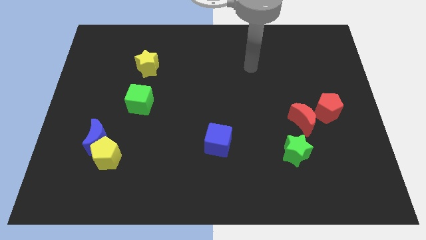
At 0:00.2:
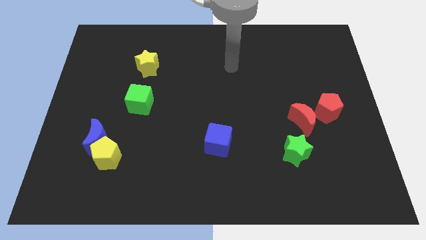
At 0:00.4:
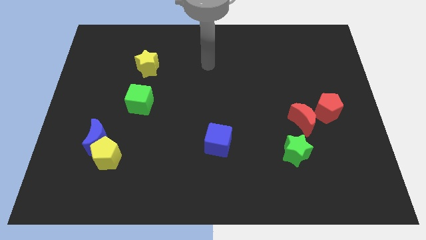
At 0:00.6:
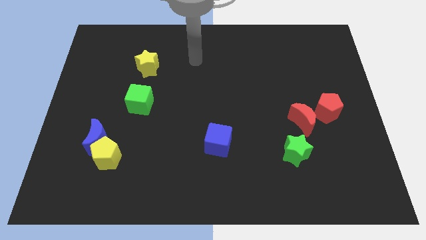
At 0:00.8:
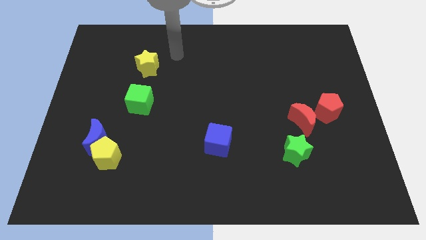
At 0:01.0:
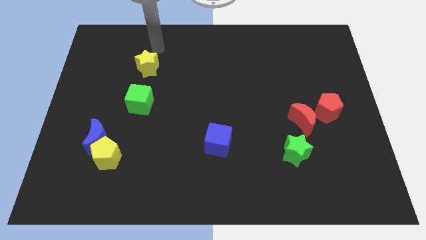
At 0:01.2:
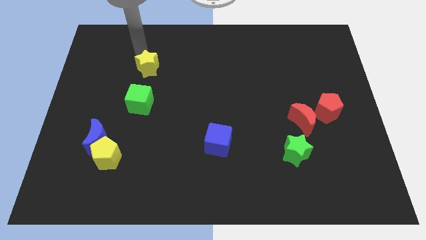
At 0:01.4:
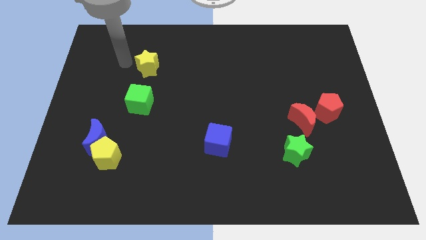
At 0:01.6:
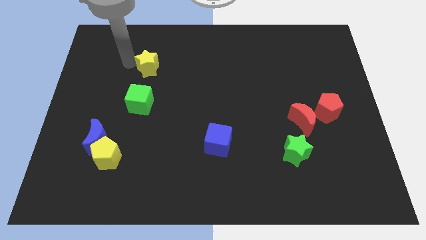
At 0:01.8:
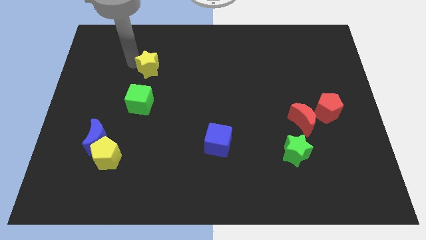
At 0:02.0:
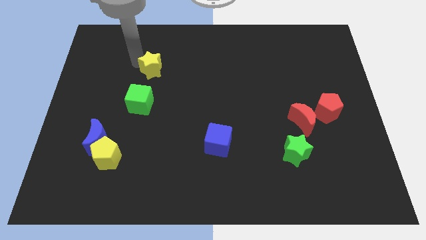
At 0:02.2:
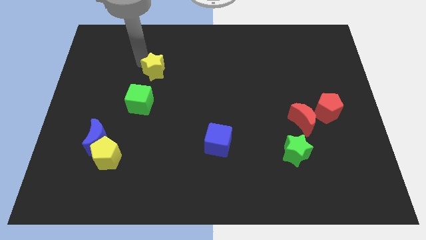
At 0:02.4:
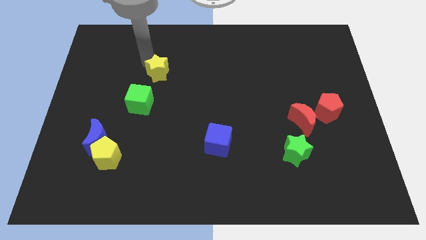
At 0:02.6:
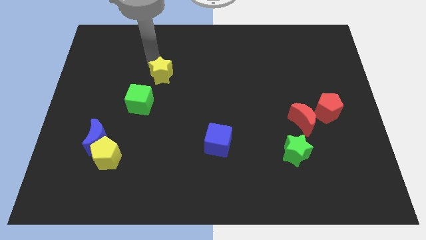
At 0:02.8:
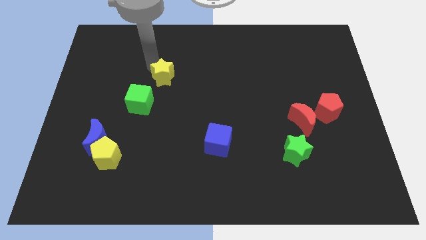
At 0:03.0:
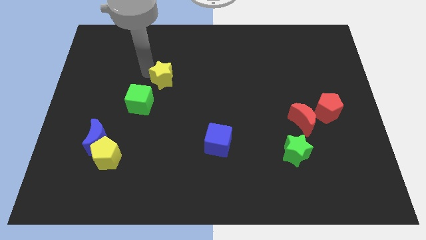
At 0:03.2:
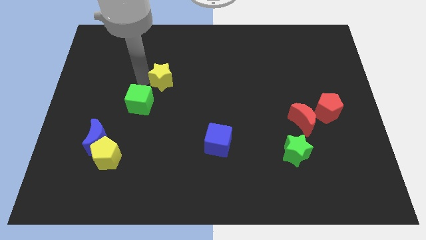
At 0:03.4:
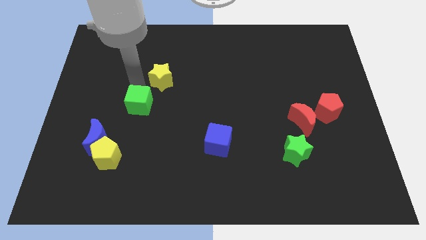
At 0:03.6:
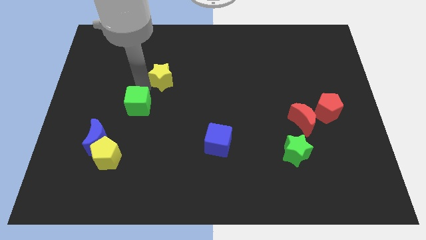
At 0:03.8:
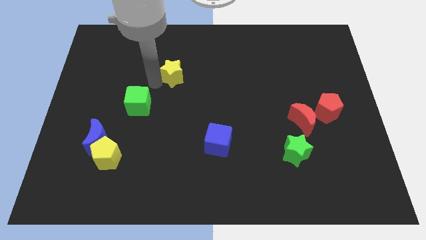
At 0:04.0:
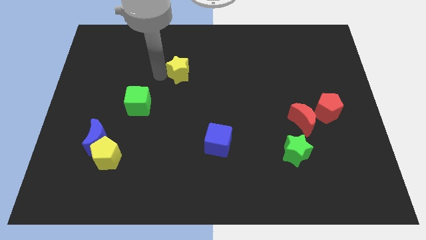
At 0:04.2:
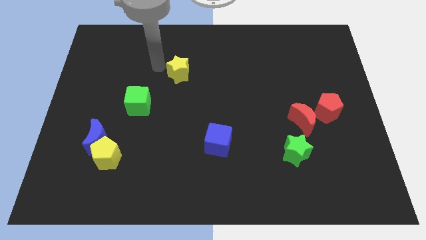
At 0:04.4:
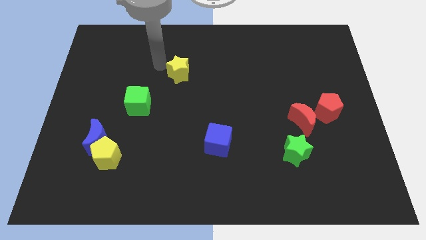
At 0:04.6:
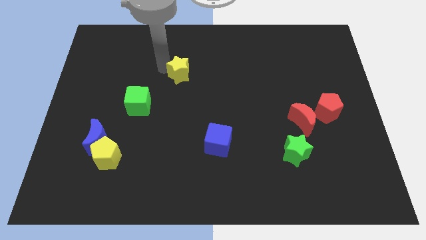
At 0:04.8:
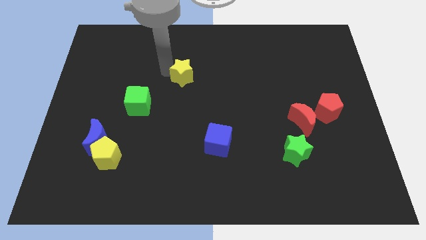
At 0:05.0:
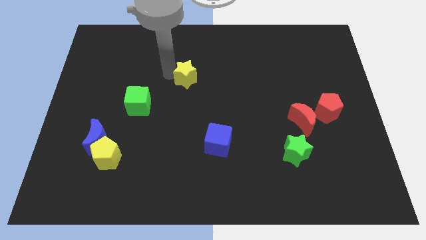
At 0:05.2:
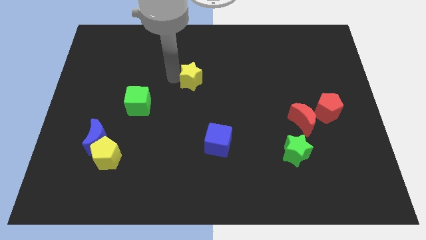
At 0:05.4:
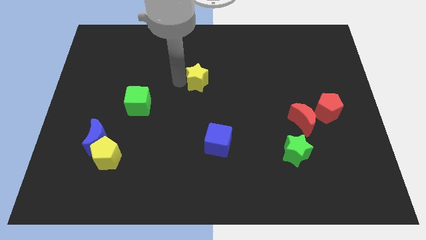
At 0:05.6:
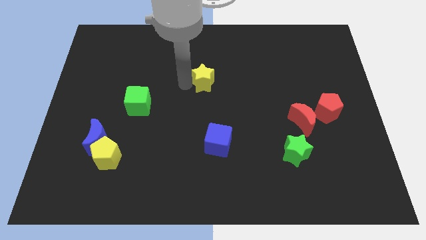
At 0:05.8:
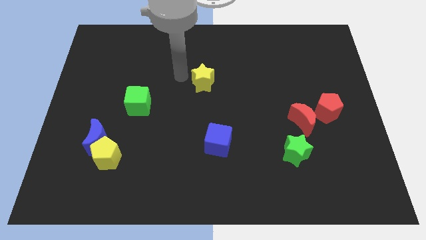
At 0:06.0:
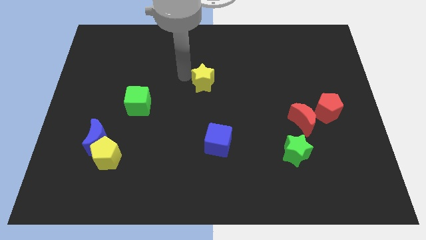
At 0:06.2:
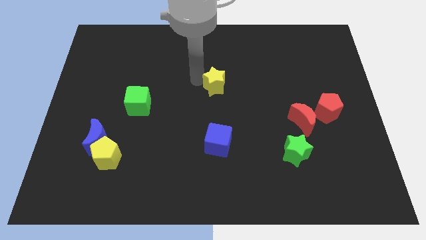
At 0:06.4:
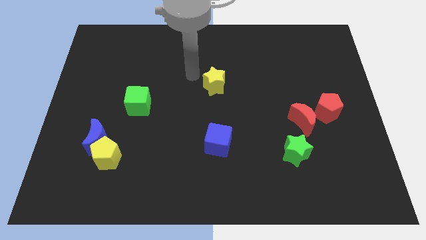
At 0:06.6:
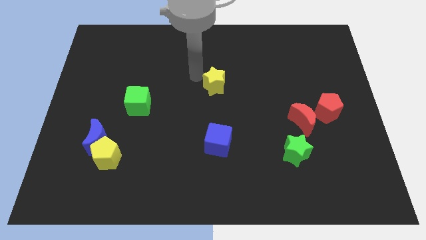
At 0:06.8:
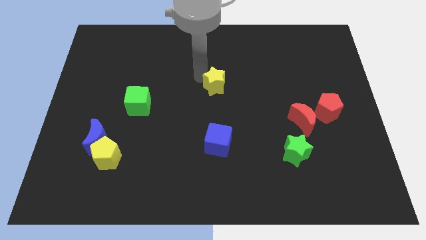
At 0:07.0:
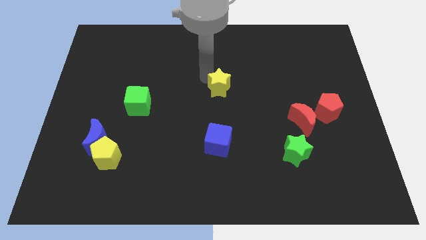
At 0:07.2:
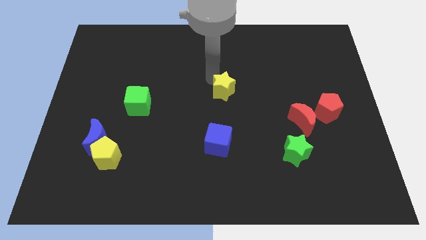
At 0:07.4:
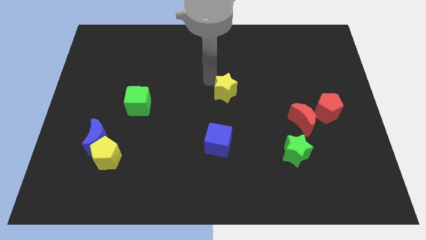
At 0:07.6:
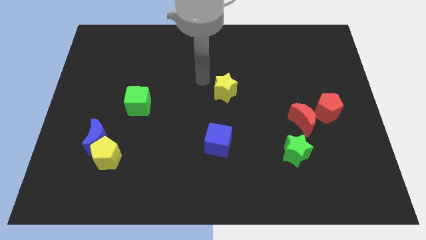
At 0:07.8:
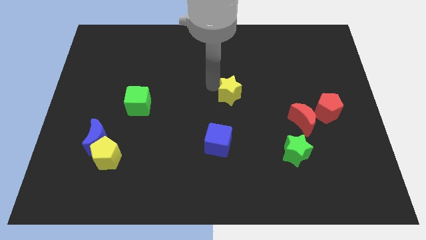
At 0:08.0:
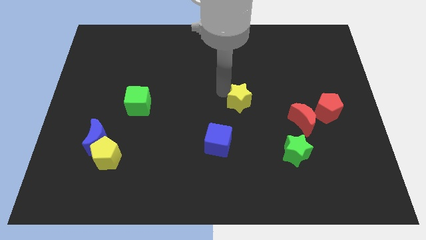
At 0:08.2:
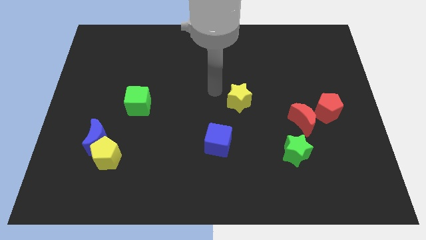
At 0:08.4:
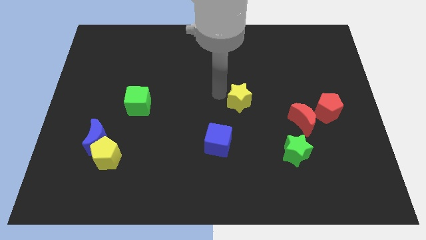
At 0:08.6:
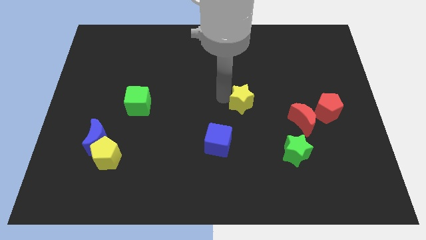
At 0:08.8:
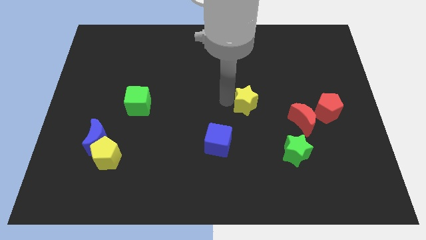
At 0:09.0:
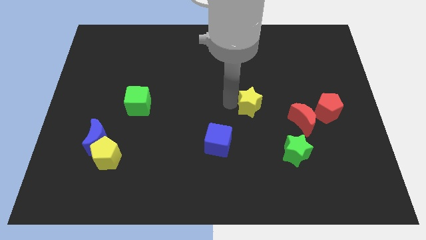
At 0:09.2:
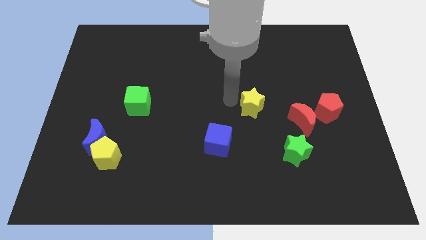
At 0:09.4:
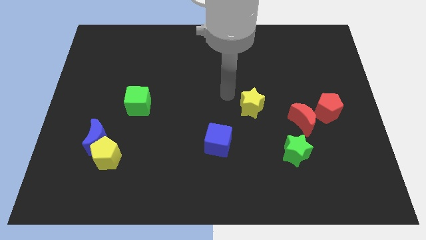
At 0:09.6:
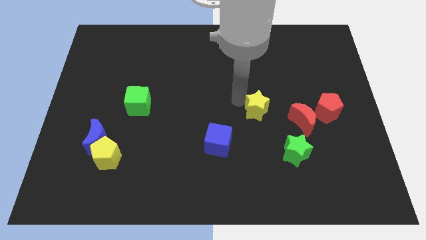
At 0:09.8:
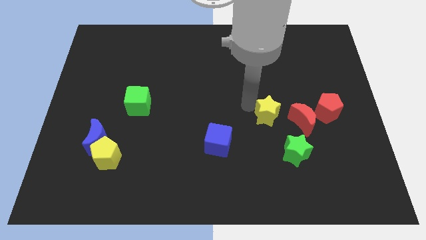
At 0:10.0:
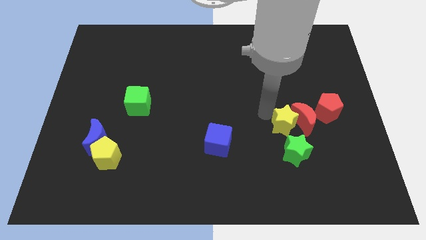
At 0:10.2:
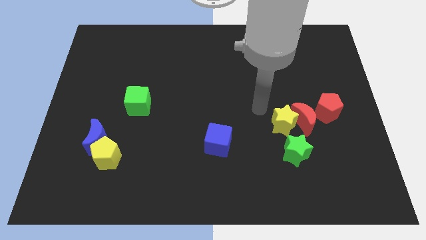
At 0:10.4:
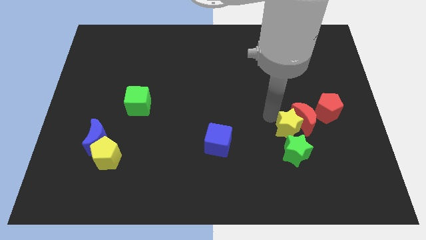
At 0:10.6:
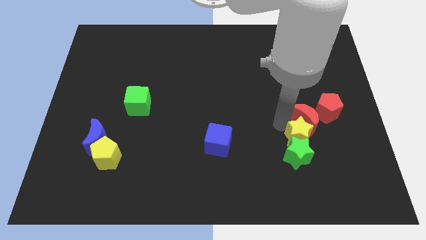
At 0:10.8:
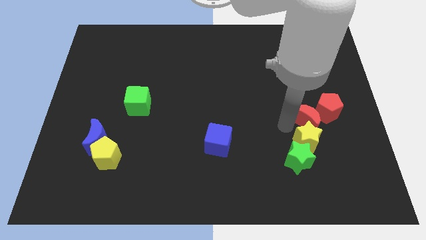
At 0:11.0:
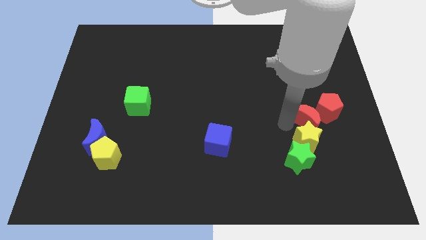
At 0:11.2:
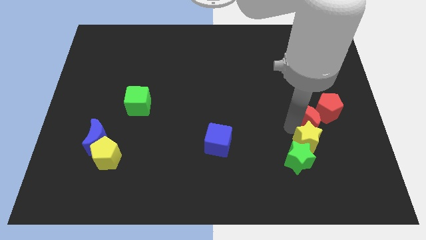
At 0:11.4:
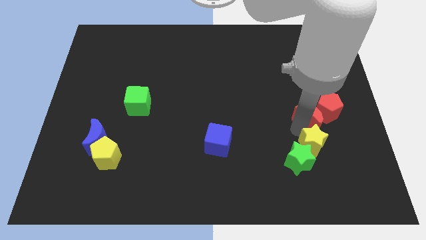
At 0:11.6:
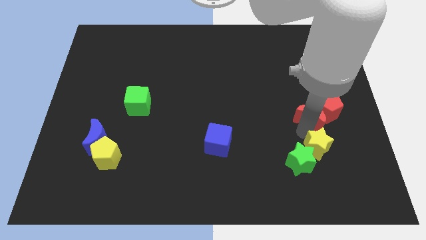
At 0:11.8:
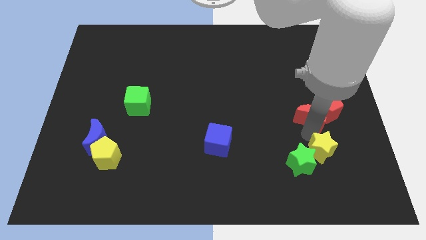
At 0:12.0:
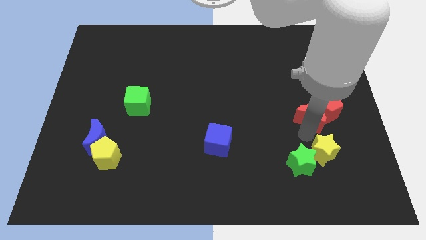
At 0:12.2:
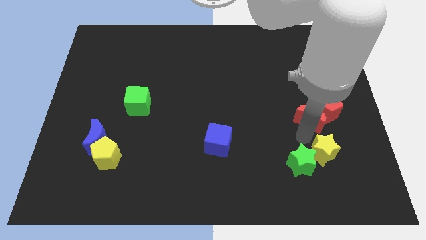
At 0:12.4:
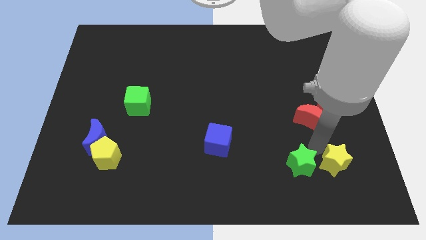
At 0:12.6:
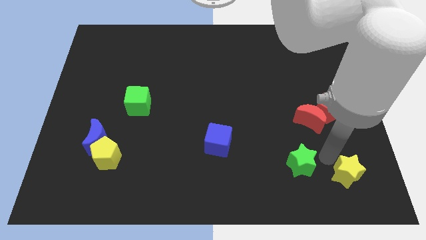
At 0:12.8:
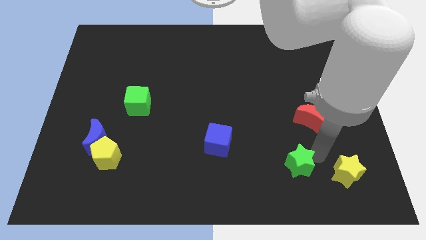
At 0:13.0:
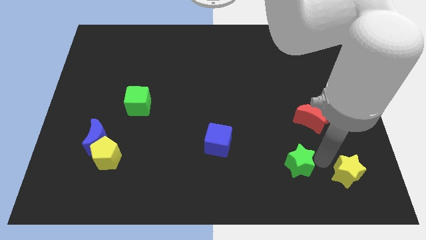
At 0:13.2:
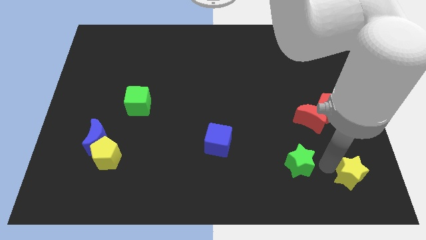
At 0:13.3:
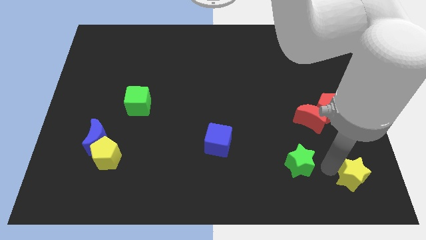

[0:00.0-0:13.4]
move the yellow star to the lower right corner
